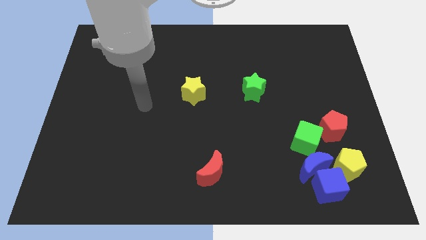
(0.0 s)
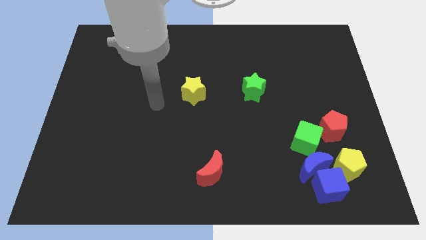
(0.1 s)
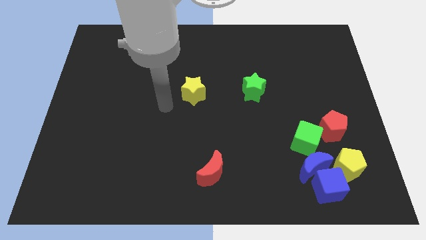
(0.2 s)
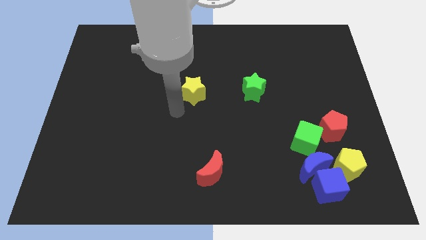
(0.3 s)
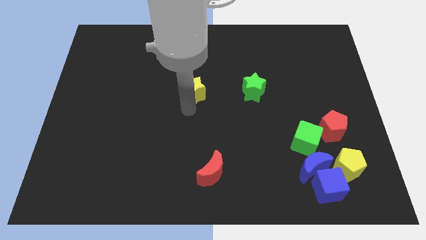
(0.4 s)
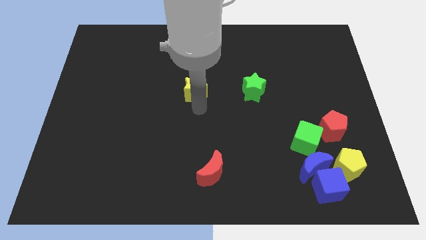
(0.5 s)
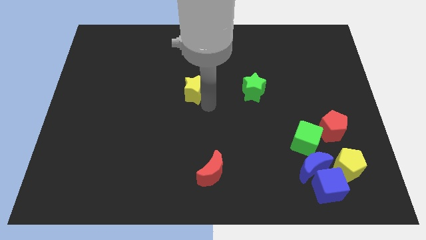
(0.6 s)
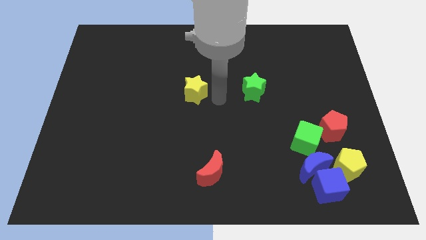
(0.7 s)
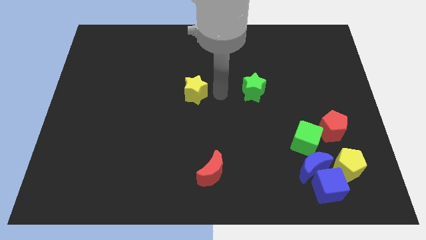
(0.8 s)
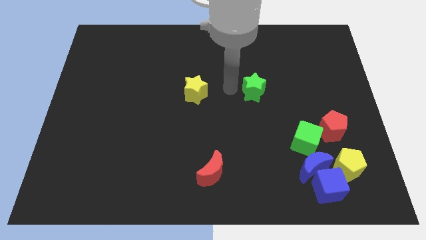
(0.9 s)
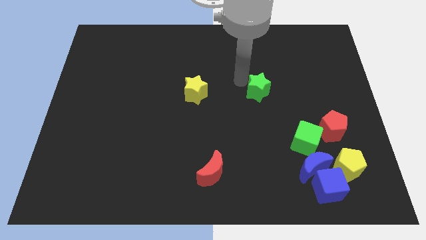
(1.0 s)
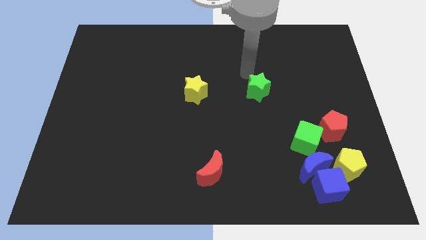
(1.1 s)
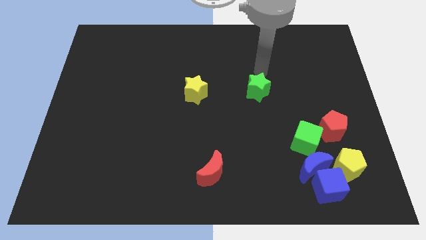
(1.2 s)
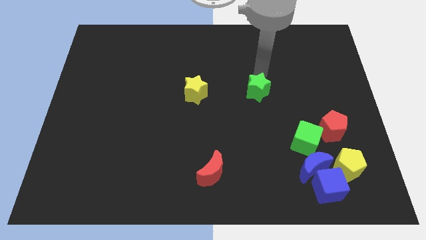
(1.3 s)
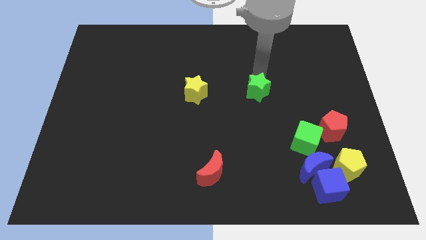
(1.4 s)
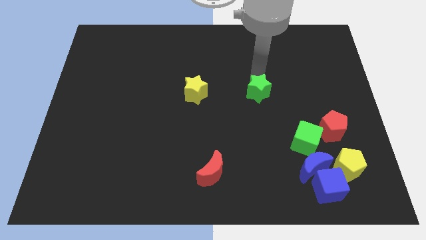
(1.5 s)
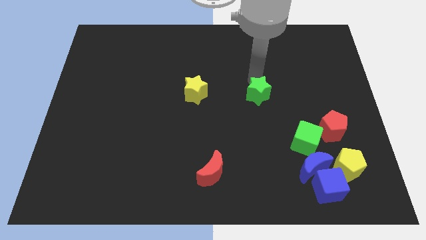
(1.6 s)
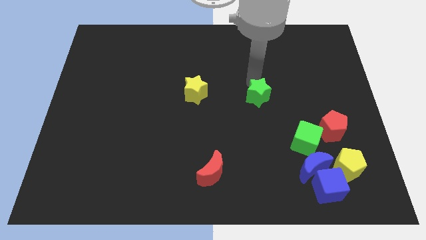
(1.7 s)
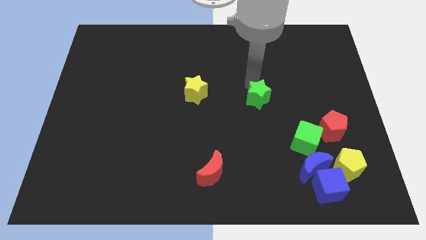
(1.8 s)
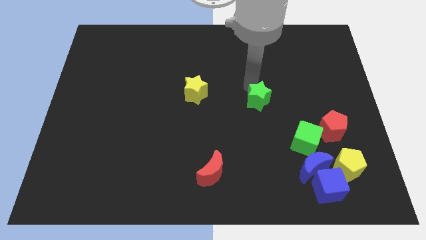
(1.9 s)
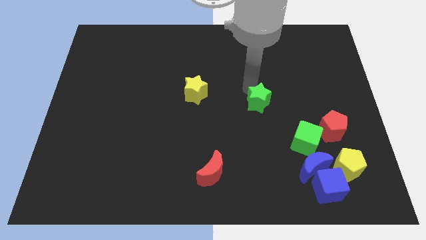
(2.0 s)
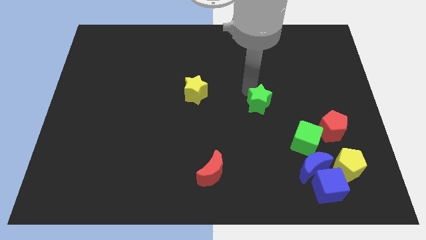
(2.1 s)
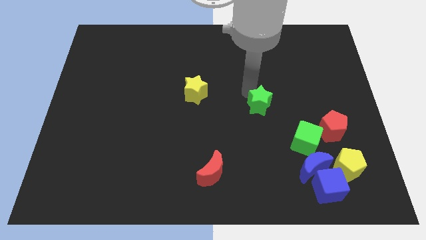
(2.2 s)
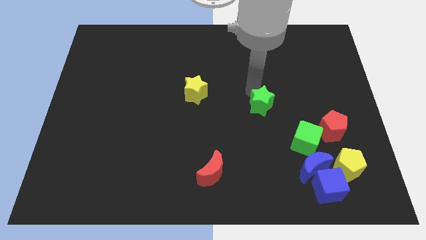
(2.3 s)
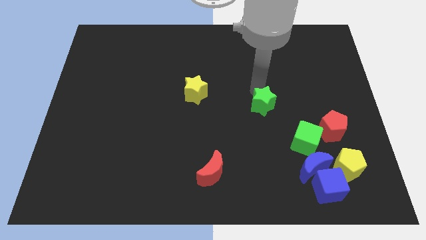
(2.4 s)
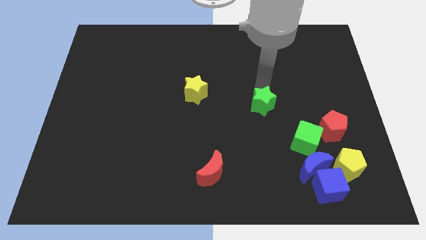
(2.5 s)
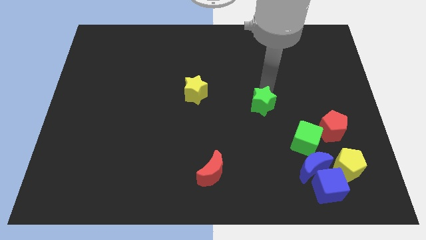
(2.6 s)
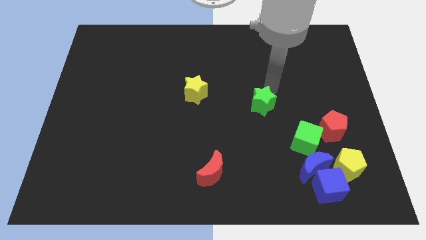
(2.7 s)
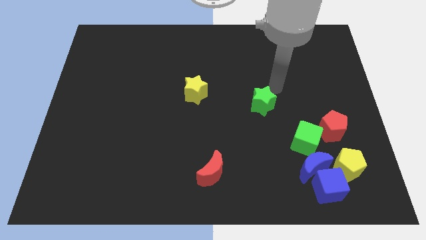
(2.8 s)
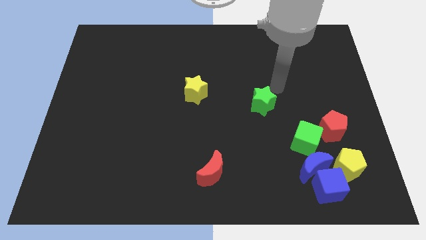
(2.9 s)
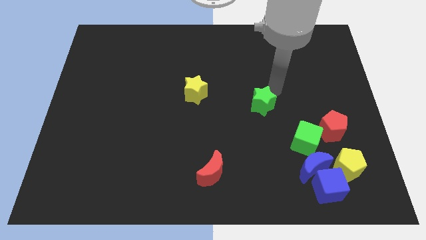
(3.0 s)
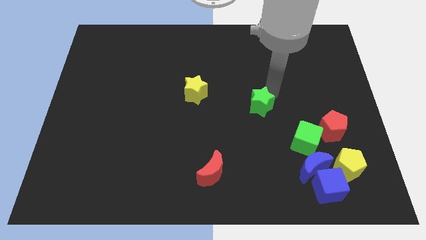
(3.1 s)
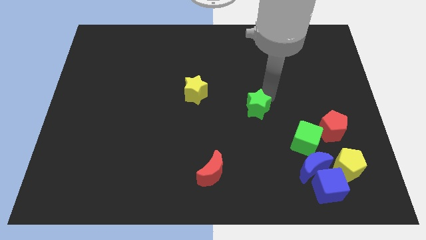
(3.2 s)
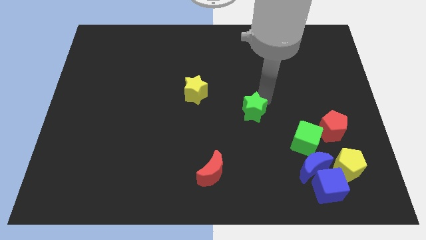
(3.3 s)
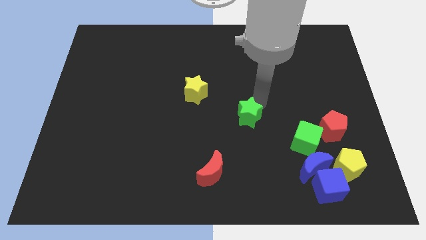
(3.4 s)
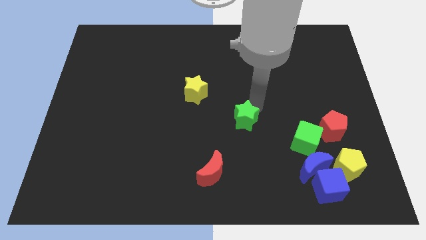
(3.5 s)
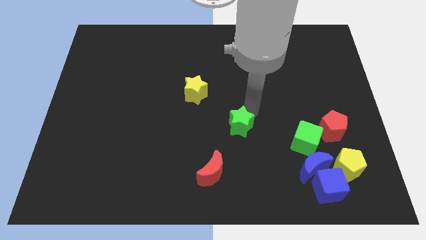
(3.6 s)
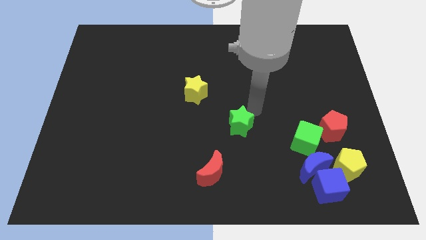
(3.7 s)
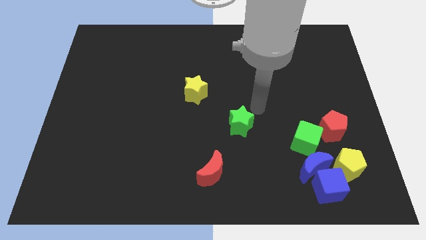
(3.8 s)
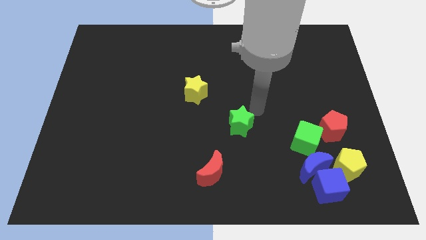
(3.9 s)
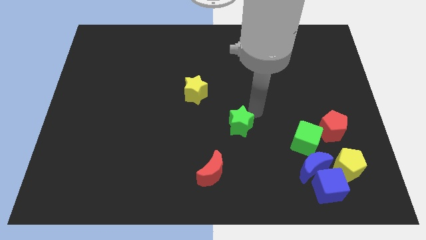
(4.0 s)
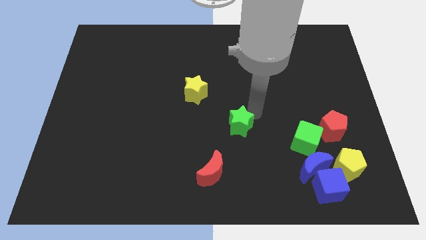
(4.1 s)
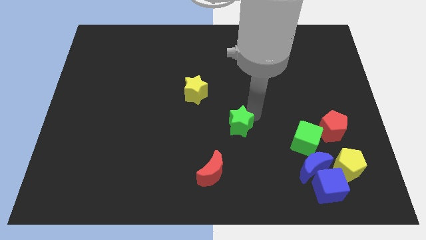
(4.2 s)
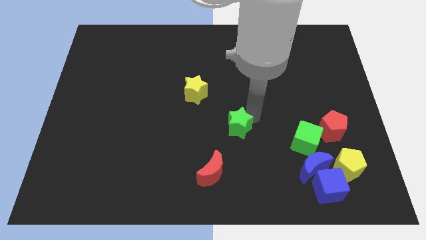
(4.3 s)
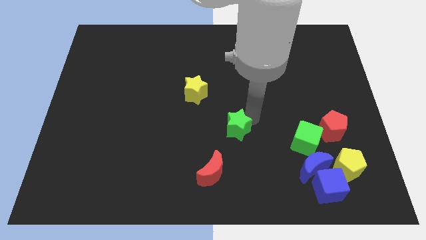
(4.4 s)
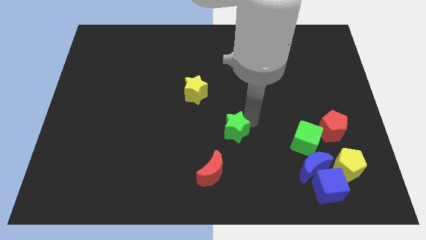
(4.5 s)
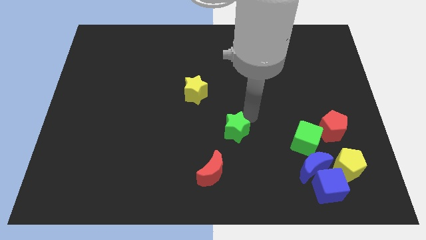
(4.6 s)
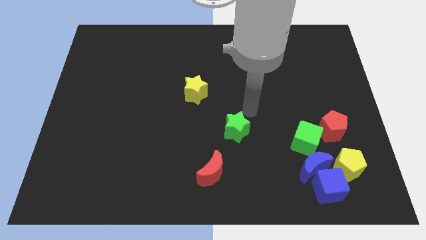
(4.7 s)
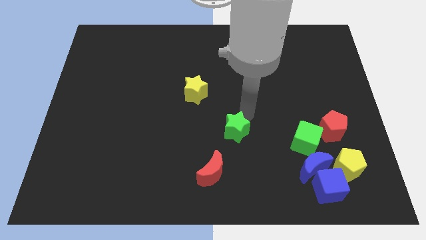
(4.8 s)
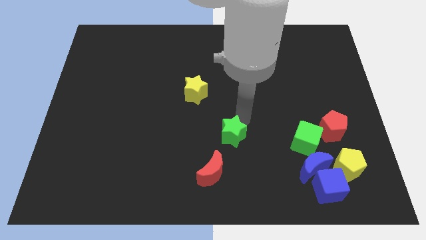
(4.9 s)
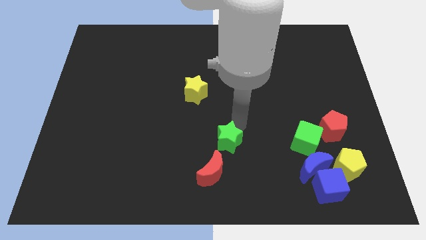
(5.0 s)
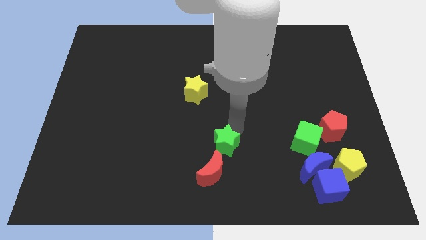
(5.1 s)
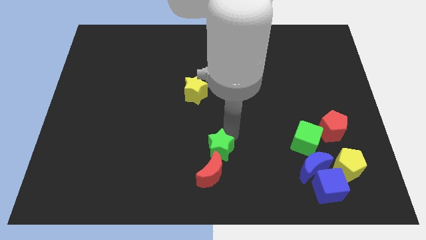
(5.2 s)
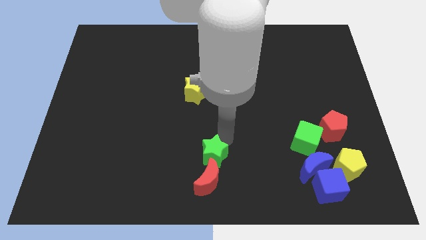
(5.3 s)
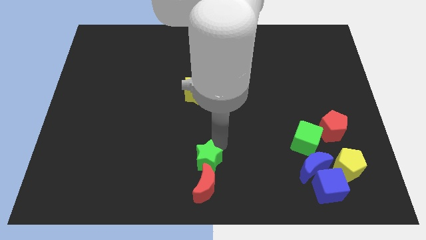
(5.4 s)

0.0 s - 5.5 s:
push the green star towards the red moon

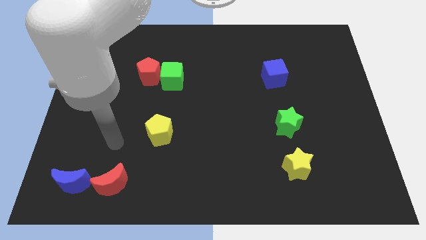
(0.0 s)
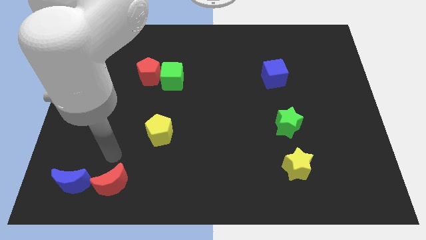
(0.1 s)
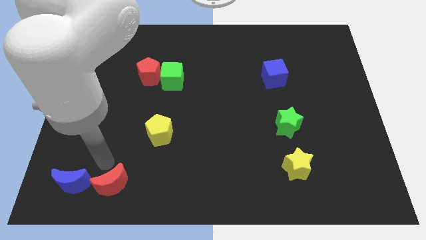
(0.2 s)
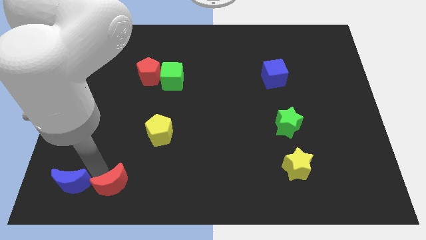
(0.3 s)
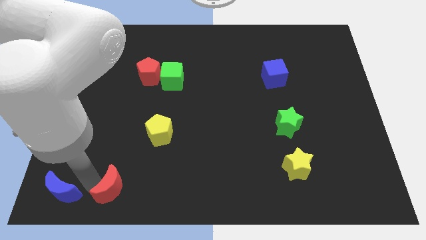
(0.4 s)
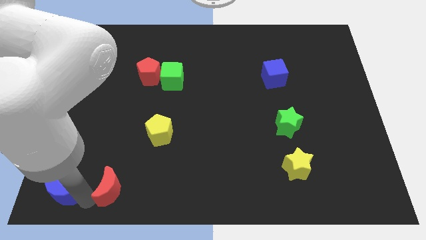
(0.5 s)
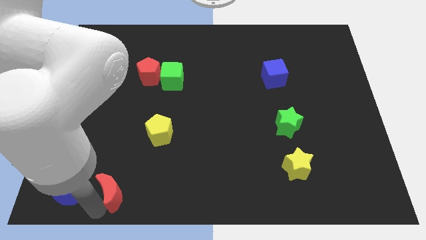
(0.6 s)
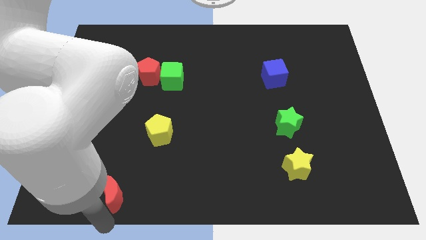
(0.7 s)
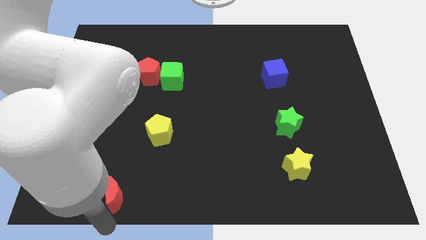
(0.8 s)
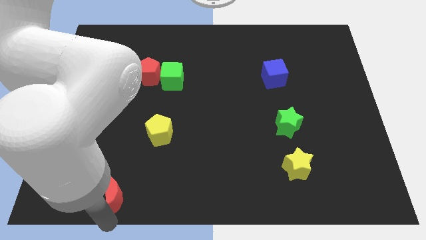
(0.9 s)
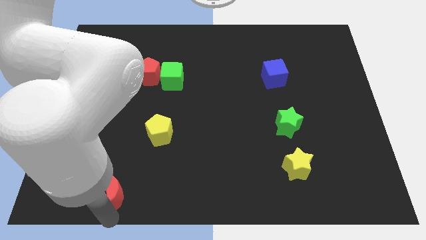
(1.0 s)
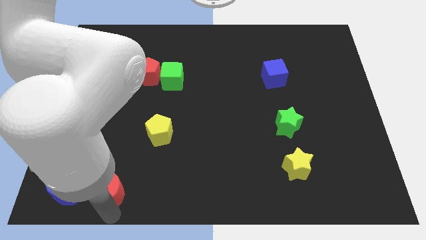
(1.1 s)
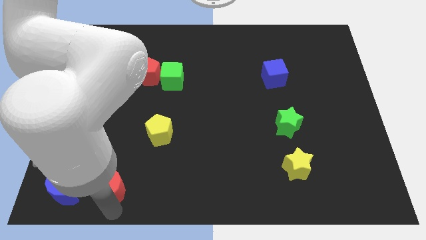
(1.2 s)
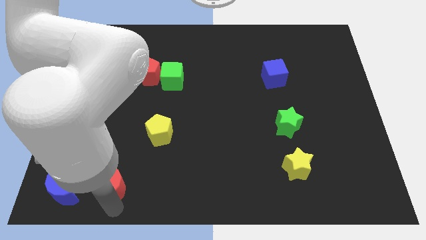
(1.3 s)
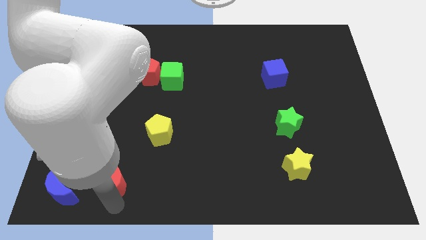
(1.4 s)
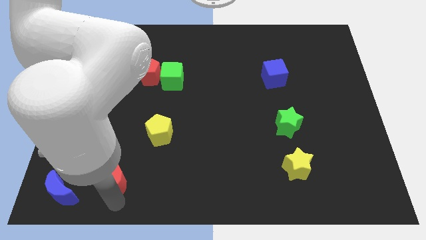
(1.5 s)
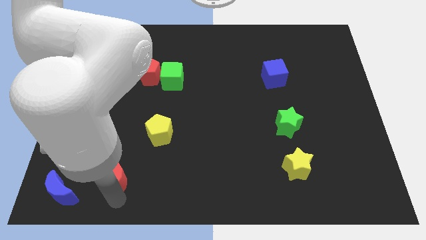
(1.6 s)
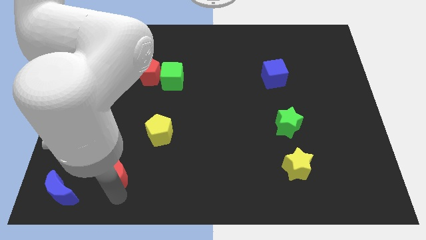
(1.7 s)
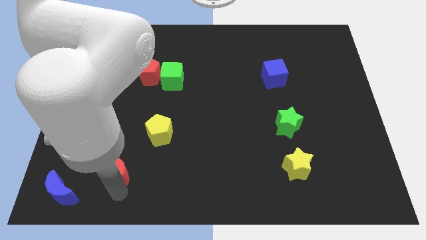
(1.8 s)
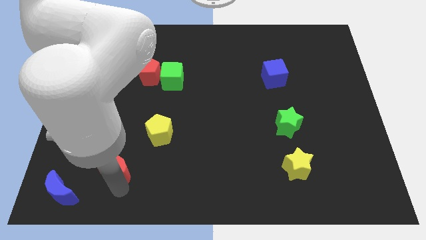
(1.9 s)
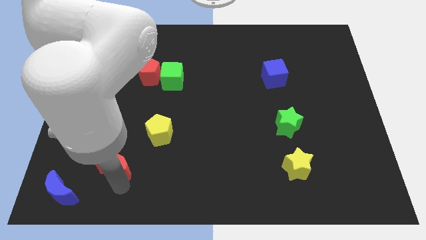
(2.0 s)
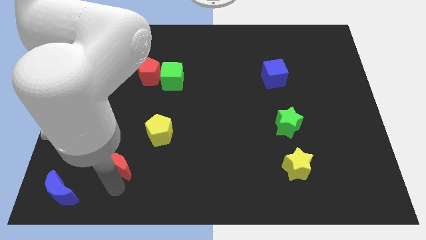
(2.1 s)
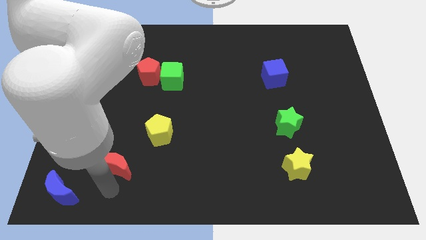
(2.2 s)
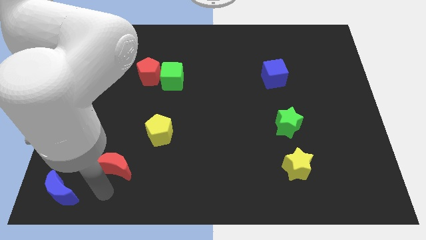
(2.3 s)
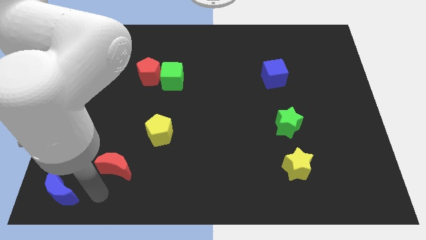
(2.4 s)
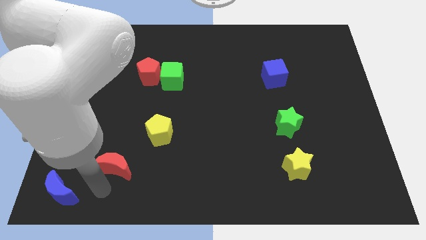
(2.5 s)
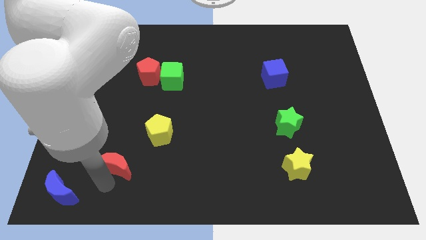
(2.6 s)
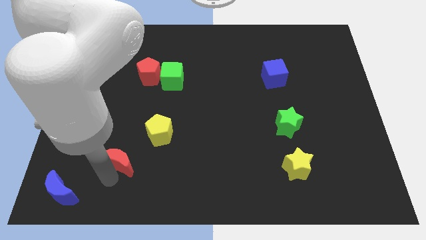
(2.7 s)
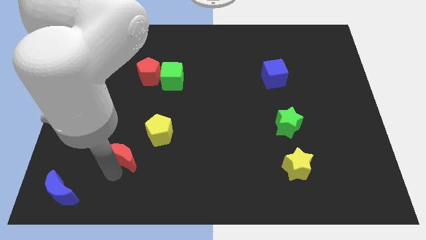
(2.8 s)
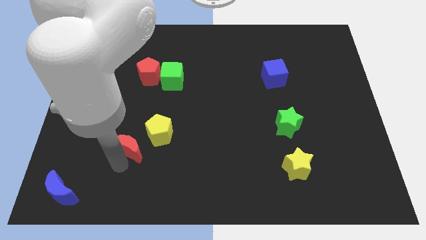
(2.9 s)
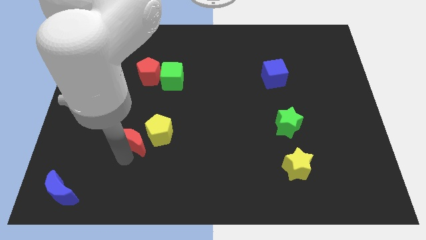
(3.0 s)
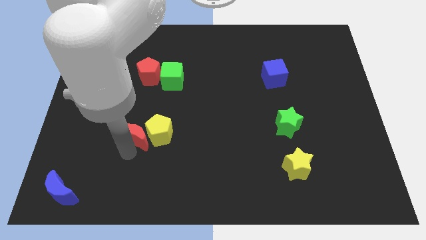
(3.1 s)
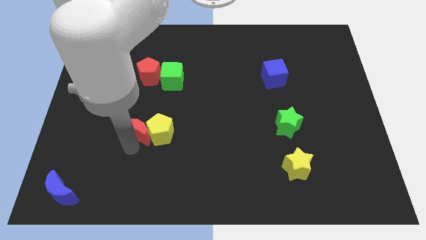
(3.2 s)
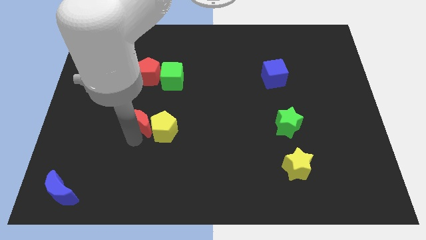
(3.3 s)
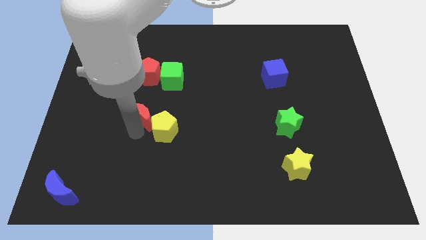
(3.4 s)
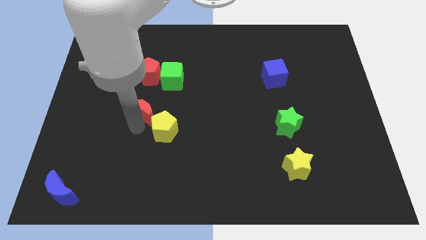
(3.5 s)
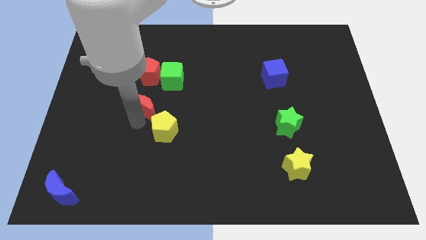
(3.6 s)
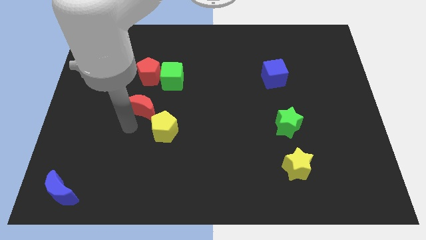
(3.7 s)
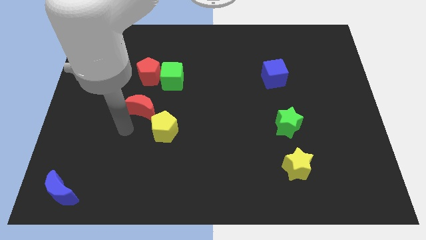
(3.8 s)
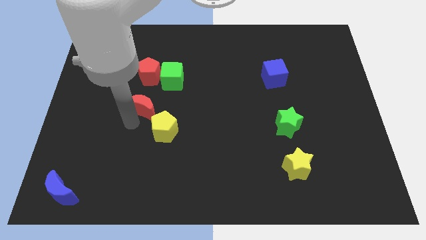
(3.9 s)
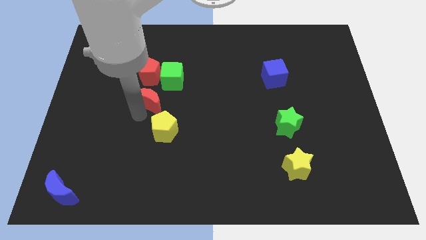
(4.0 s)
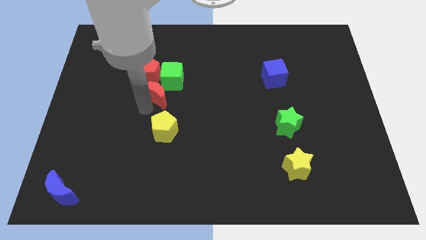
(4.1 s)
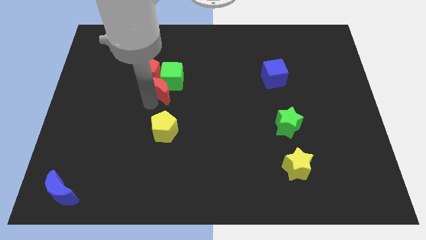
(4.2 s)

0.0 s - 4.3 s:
slide the red moon close to the green cube
